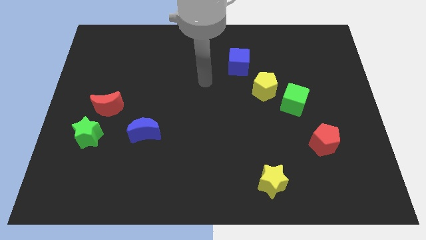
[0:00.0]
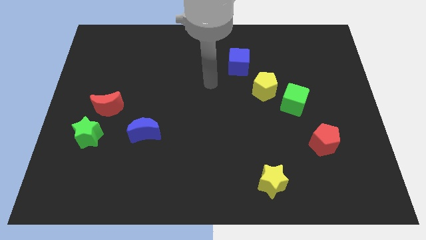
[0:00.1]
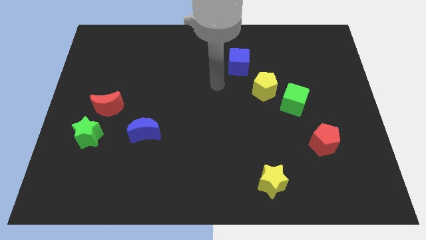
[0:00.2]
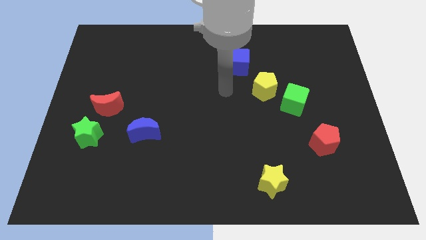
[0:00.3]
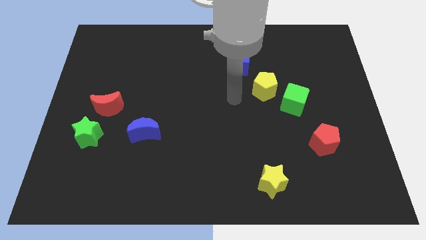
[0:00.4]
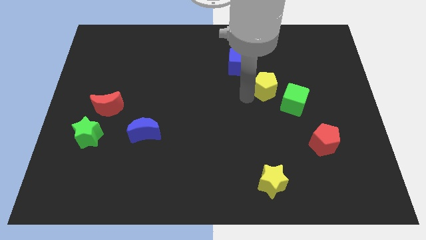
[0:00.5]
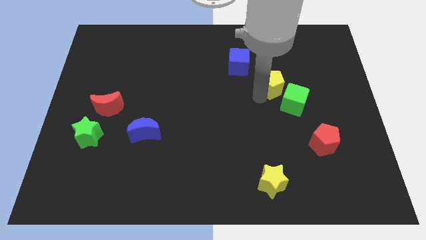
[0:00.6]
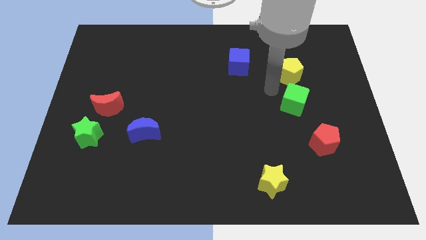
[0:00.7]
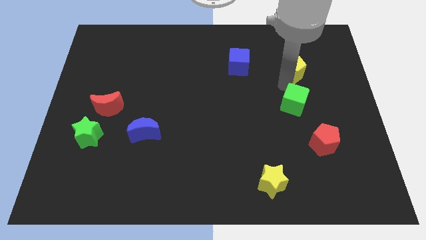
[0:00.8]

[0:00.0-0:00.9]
separate the green cube from the yellow pentagon

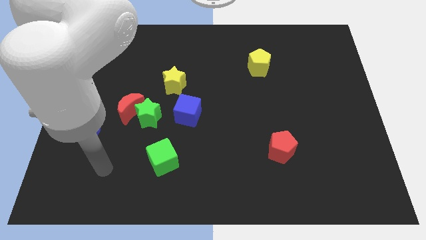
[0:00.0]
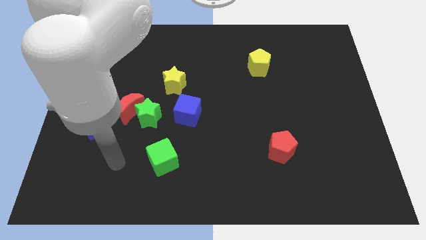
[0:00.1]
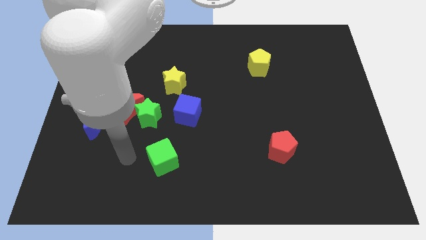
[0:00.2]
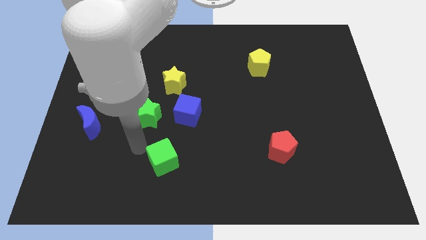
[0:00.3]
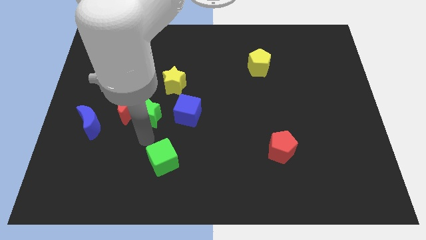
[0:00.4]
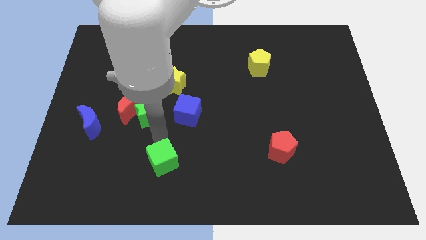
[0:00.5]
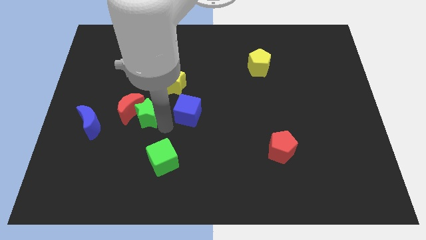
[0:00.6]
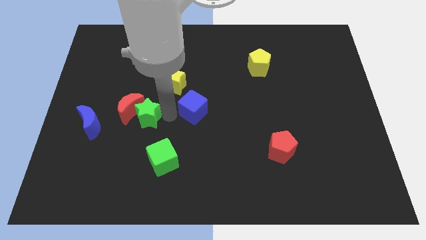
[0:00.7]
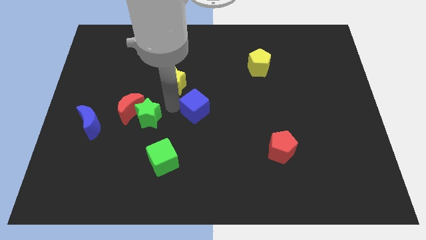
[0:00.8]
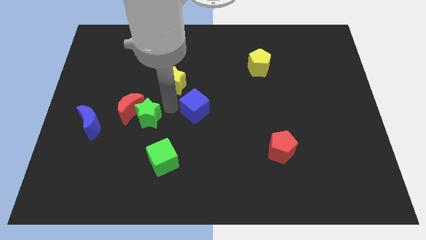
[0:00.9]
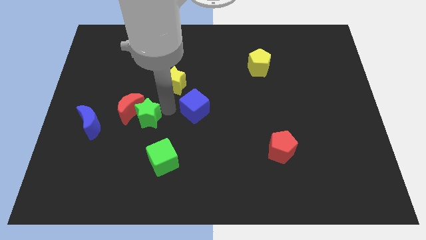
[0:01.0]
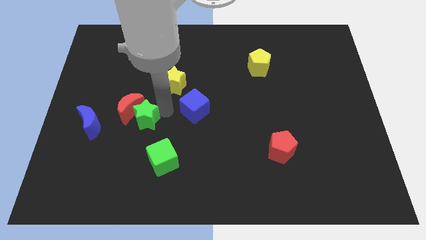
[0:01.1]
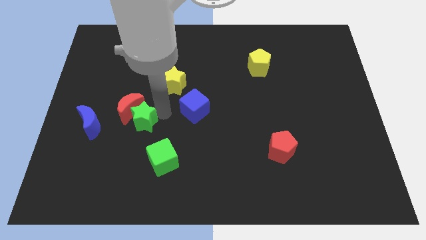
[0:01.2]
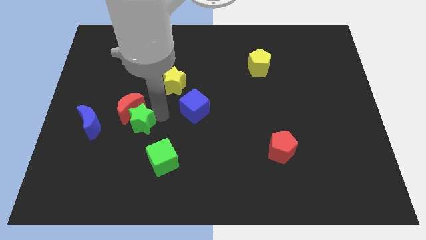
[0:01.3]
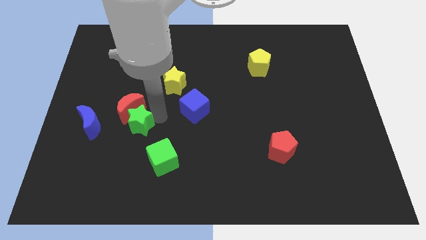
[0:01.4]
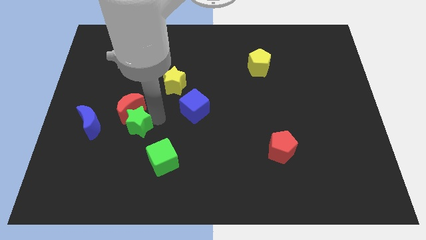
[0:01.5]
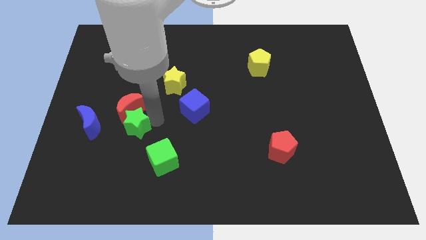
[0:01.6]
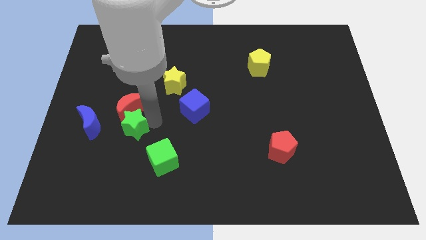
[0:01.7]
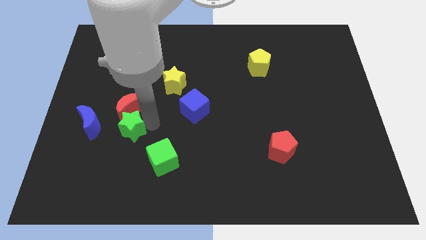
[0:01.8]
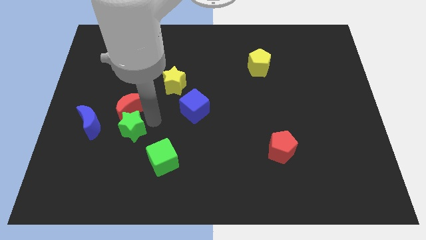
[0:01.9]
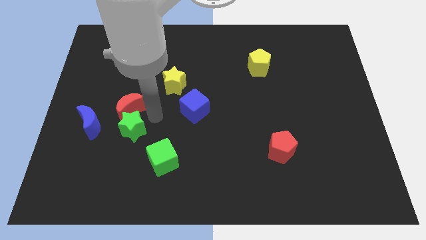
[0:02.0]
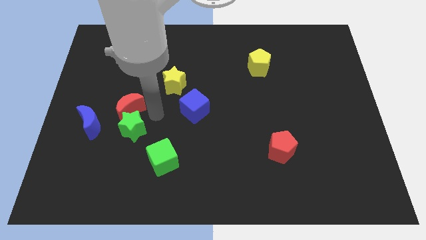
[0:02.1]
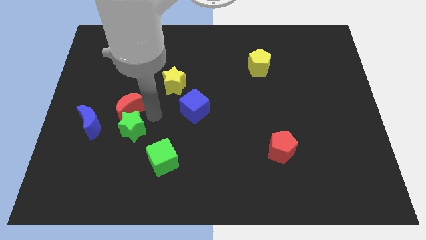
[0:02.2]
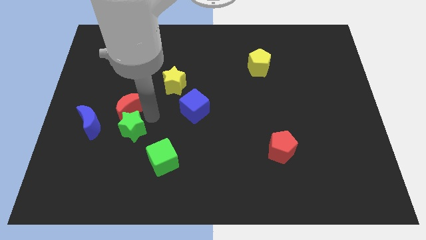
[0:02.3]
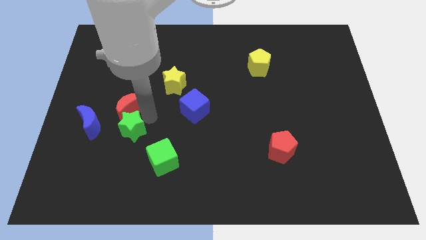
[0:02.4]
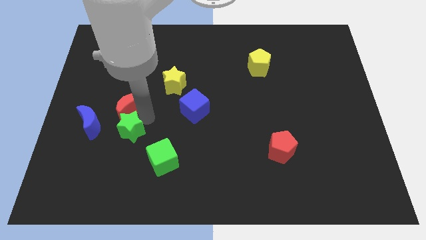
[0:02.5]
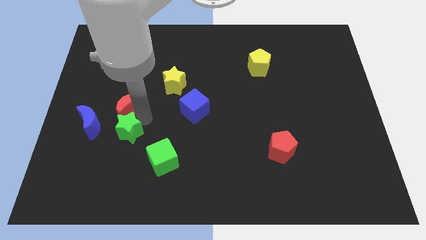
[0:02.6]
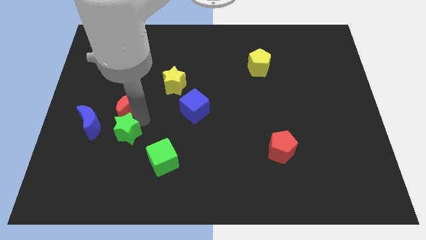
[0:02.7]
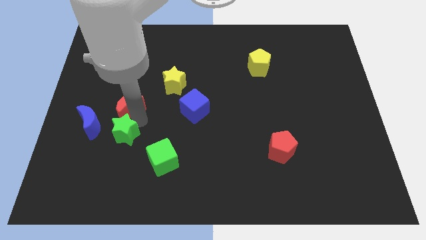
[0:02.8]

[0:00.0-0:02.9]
move the green star away from the red moon and blue cube

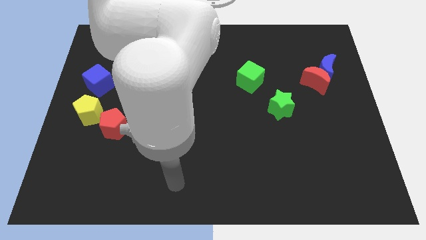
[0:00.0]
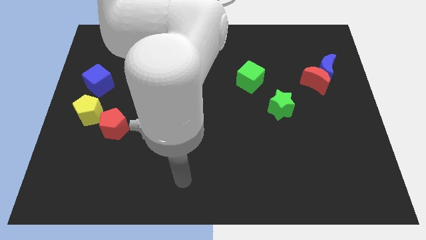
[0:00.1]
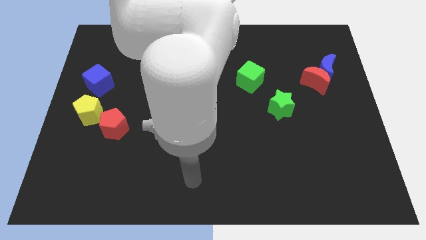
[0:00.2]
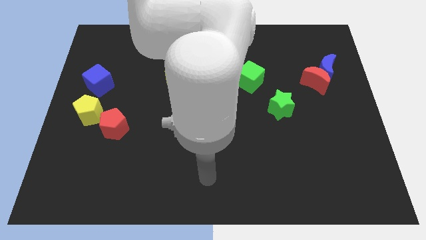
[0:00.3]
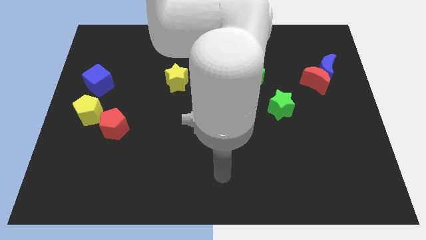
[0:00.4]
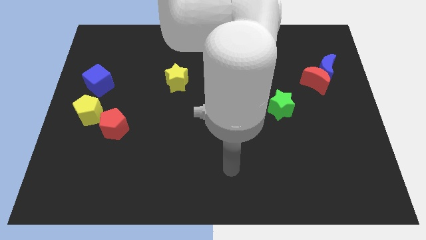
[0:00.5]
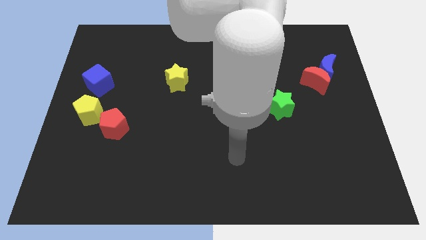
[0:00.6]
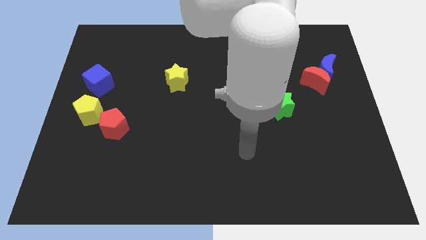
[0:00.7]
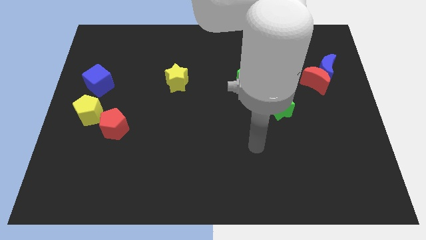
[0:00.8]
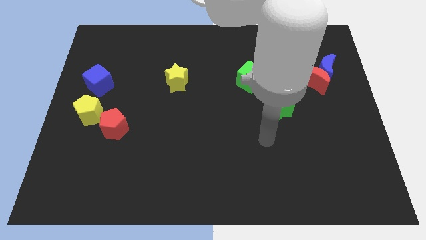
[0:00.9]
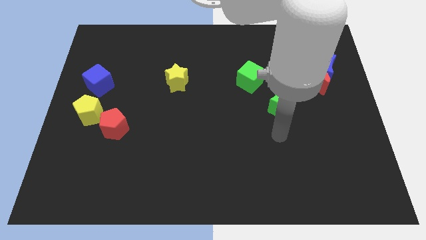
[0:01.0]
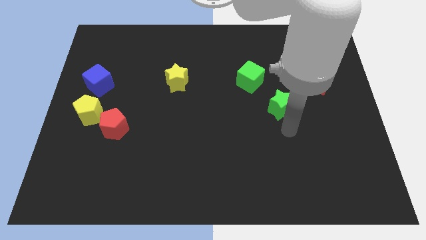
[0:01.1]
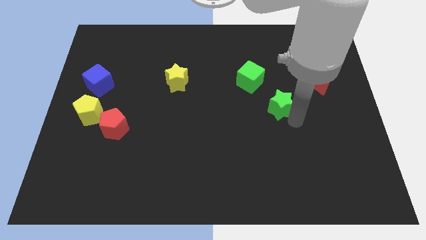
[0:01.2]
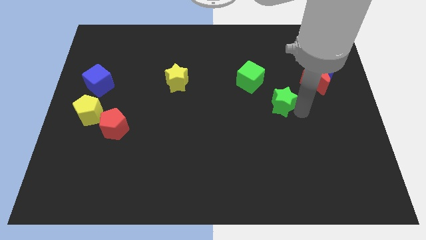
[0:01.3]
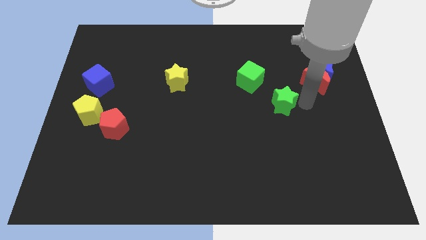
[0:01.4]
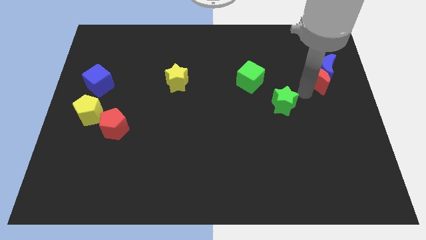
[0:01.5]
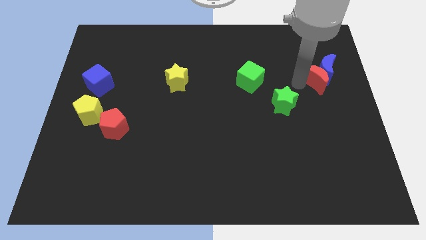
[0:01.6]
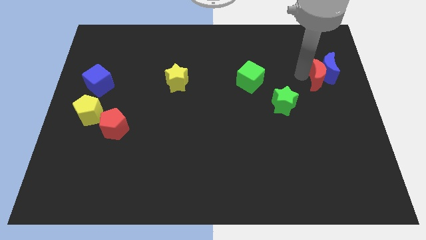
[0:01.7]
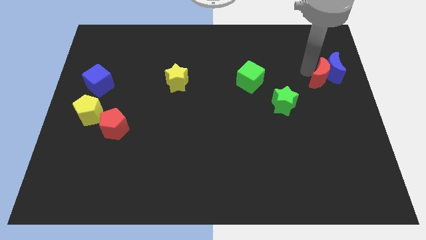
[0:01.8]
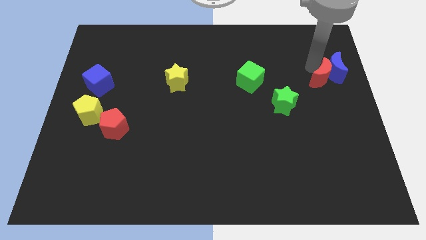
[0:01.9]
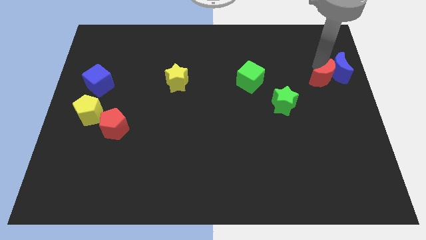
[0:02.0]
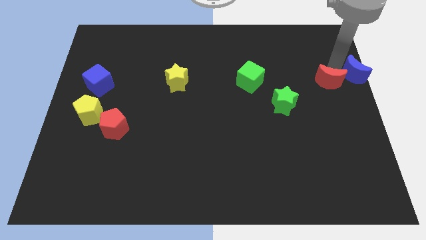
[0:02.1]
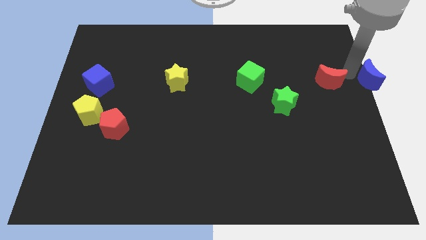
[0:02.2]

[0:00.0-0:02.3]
separate the red moon from the blue moon

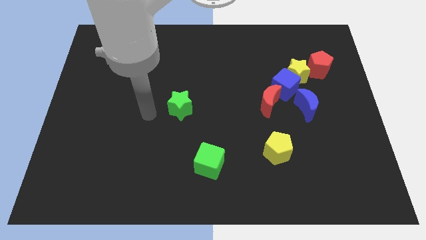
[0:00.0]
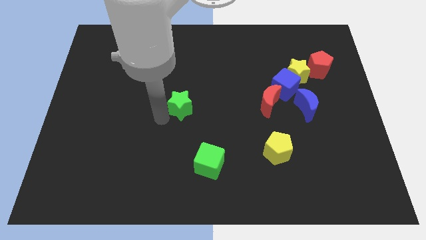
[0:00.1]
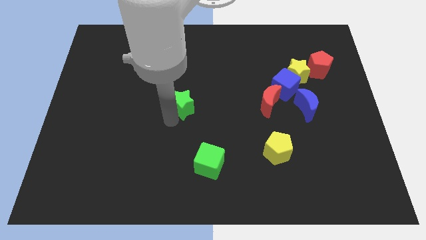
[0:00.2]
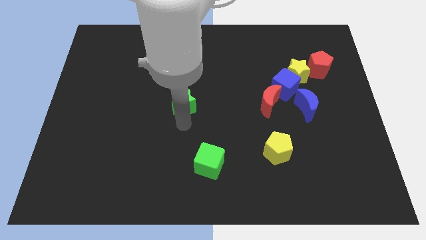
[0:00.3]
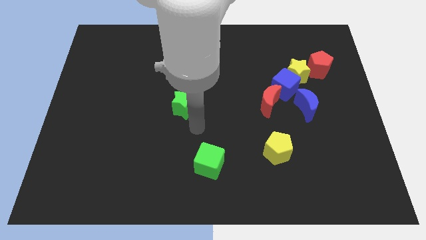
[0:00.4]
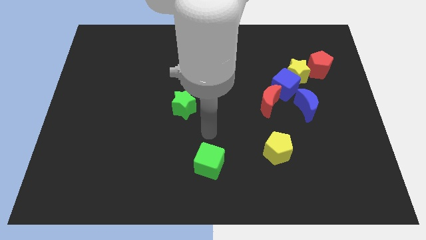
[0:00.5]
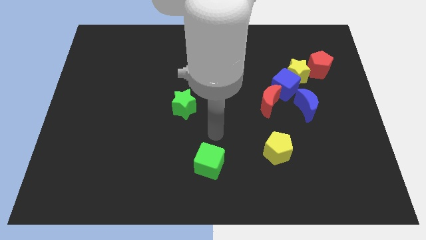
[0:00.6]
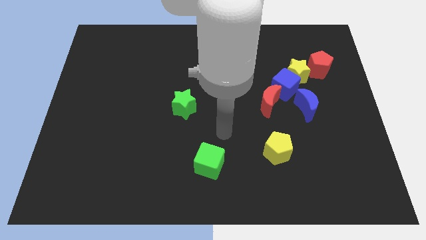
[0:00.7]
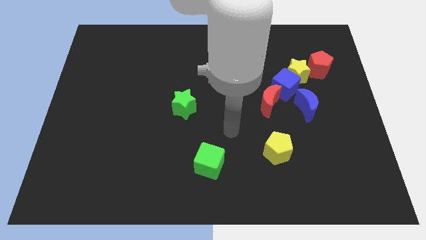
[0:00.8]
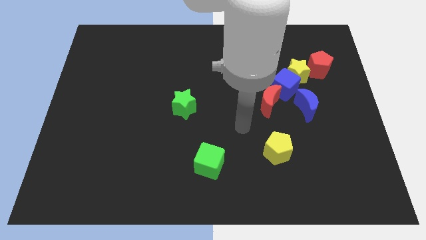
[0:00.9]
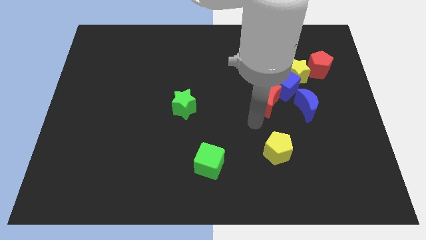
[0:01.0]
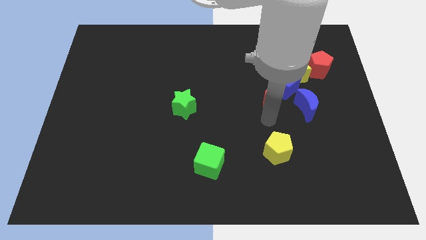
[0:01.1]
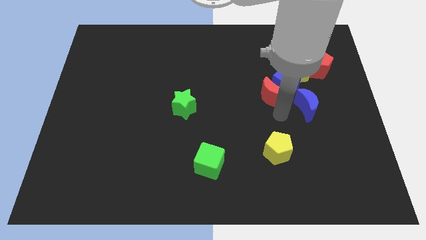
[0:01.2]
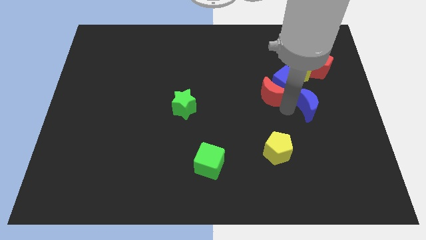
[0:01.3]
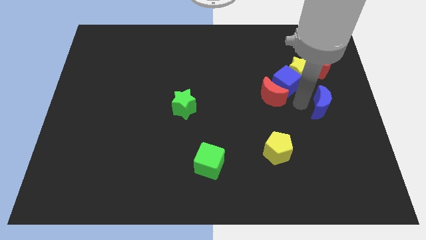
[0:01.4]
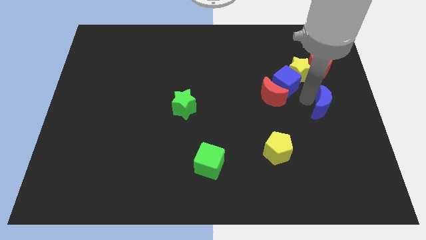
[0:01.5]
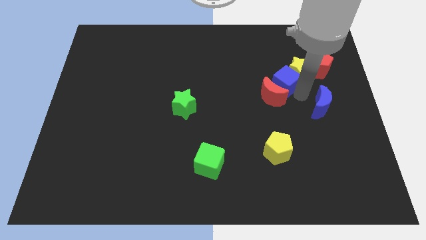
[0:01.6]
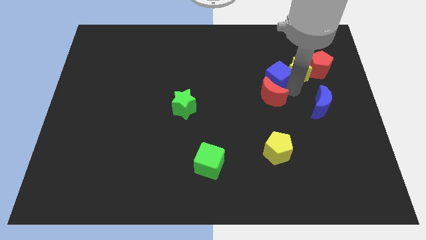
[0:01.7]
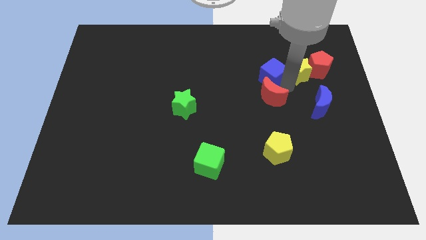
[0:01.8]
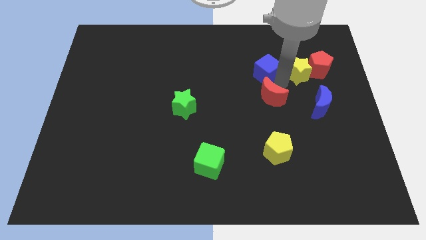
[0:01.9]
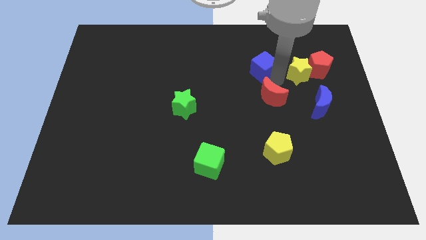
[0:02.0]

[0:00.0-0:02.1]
move the blue cube away from the yellow star, red moon, and blue moon

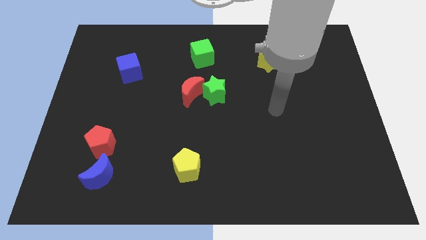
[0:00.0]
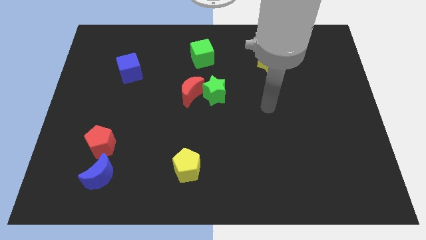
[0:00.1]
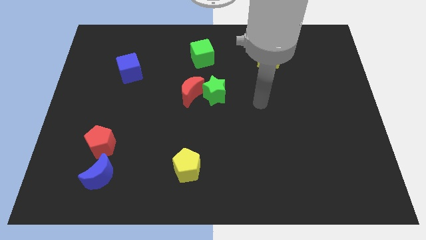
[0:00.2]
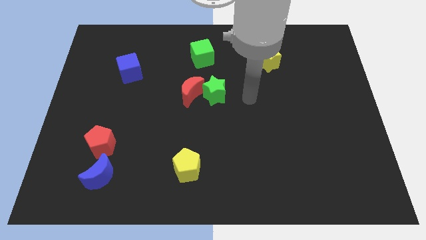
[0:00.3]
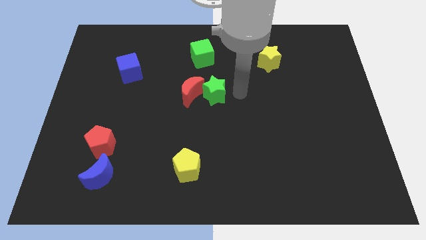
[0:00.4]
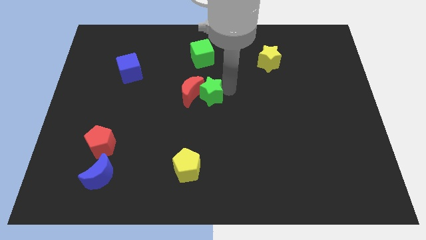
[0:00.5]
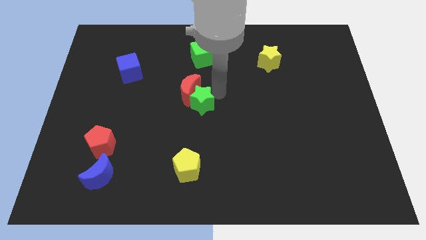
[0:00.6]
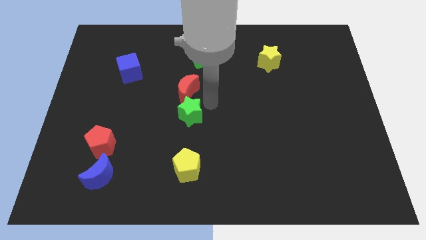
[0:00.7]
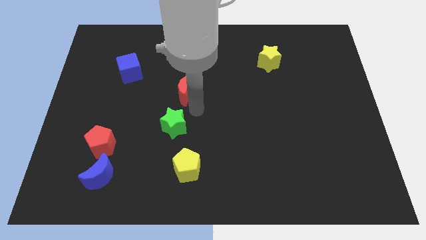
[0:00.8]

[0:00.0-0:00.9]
separate the red moon from the green star

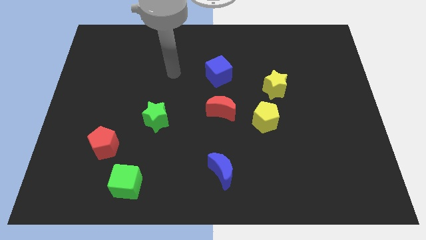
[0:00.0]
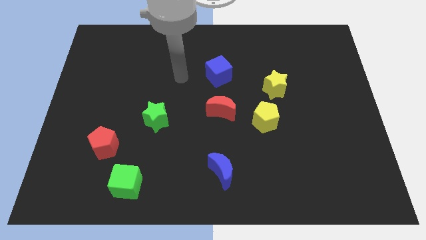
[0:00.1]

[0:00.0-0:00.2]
move the red moon away from the yellow pentagon
